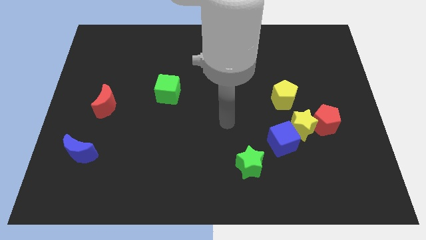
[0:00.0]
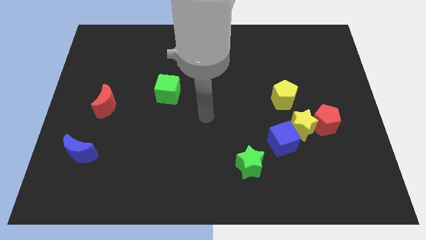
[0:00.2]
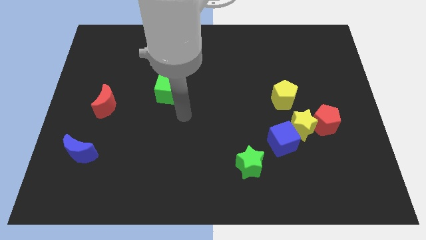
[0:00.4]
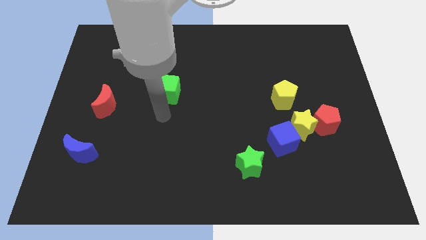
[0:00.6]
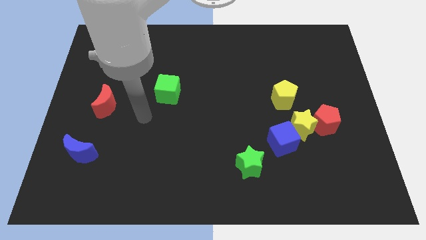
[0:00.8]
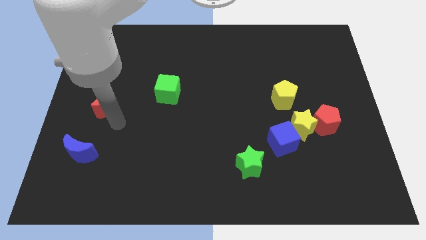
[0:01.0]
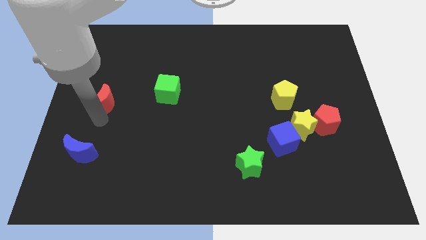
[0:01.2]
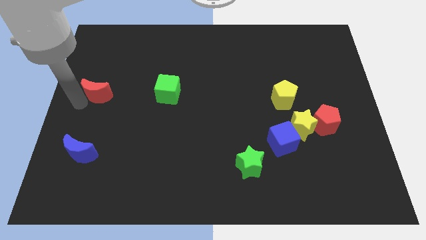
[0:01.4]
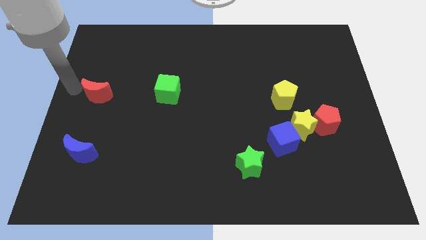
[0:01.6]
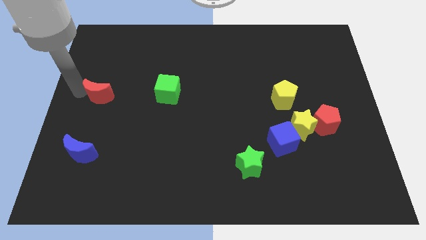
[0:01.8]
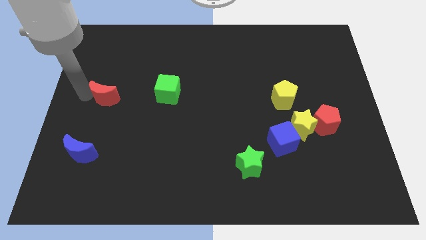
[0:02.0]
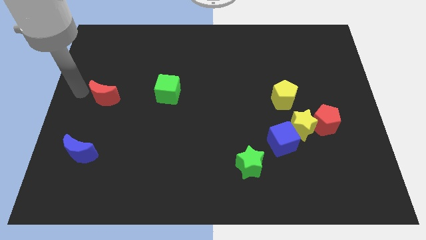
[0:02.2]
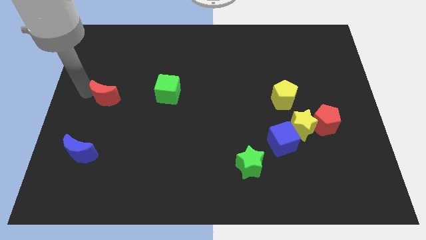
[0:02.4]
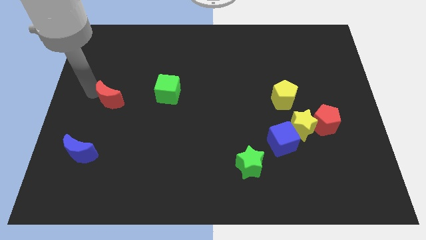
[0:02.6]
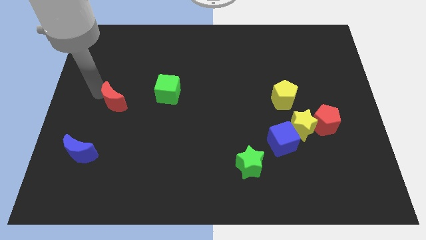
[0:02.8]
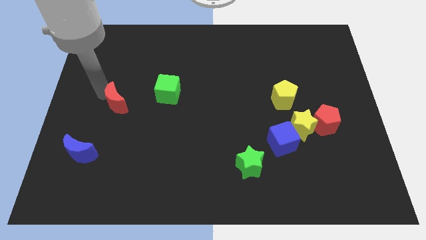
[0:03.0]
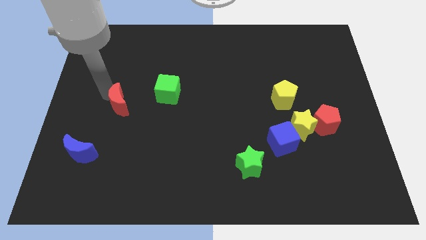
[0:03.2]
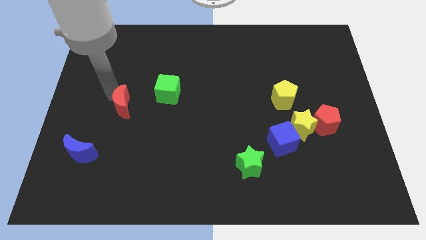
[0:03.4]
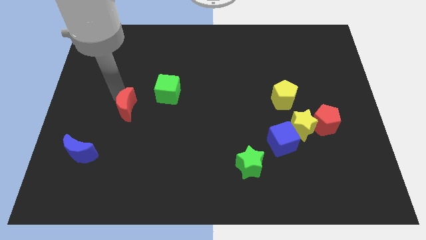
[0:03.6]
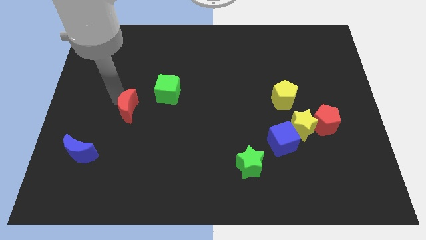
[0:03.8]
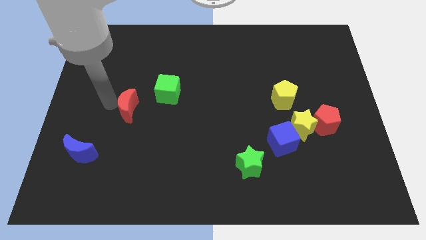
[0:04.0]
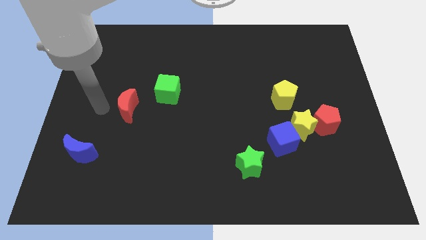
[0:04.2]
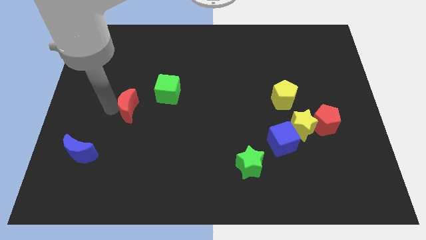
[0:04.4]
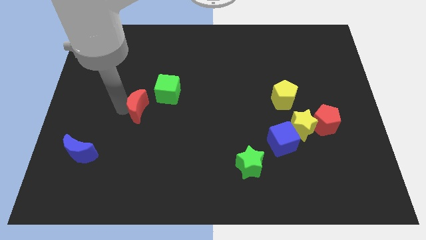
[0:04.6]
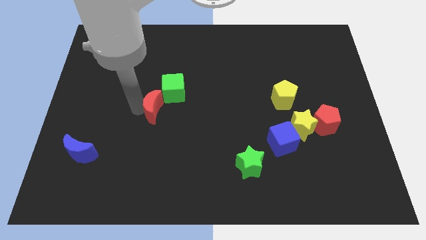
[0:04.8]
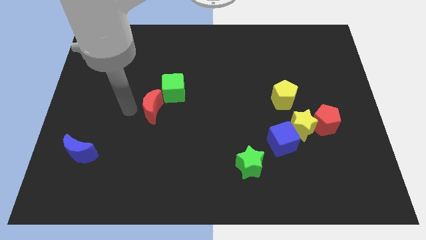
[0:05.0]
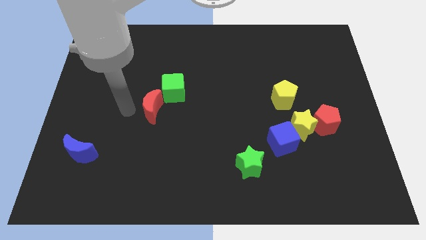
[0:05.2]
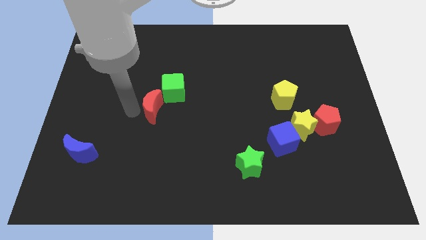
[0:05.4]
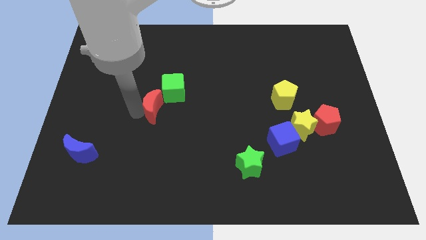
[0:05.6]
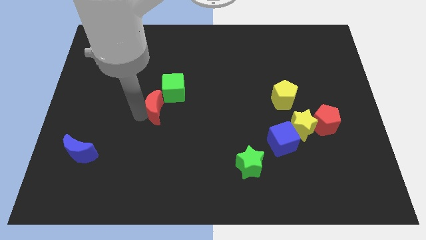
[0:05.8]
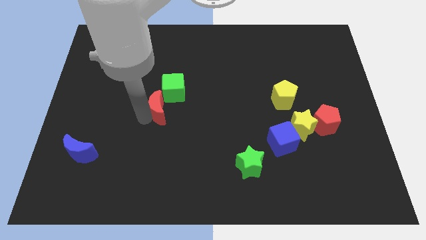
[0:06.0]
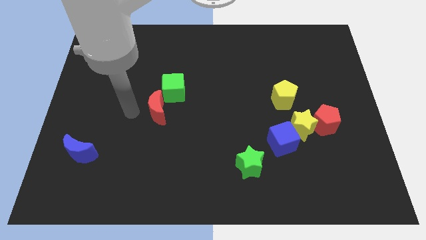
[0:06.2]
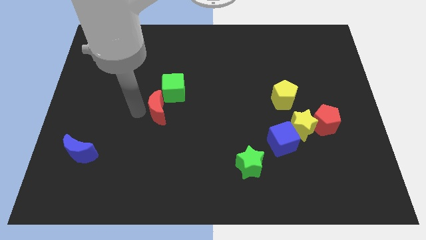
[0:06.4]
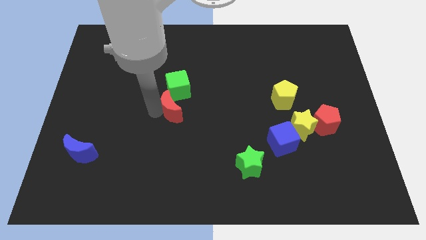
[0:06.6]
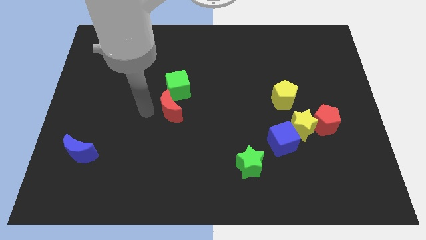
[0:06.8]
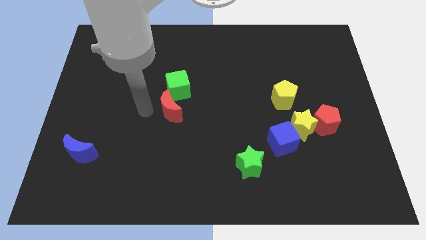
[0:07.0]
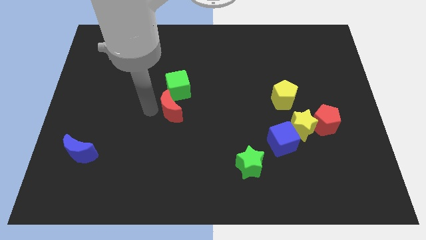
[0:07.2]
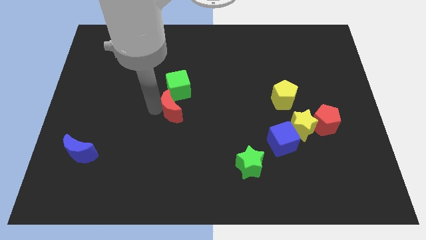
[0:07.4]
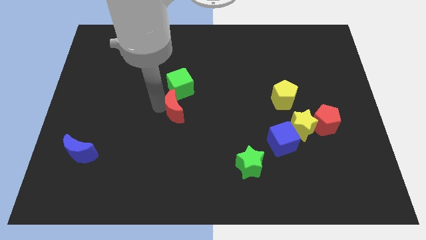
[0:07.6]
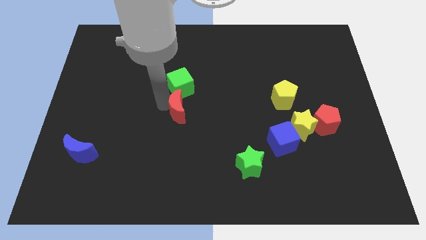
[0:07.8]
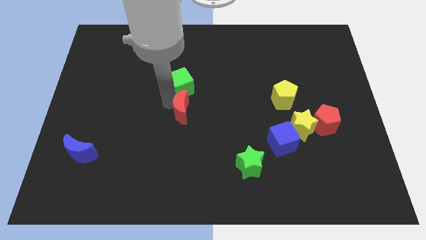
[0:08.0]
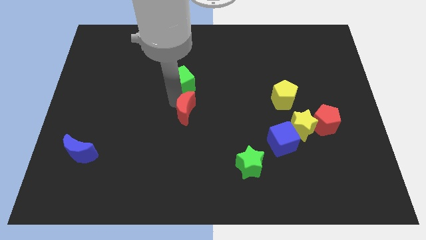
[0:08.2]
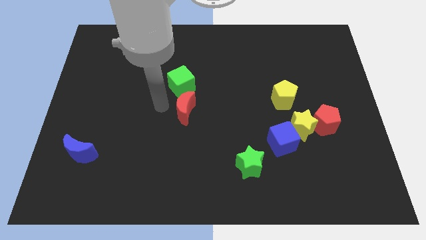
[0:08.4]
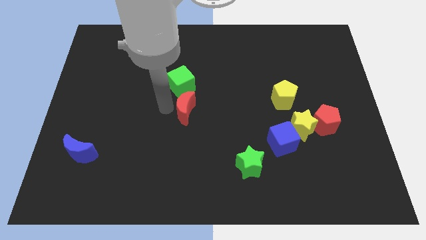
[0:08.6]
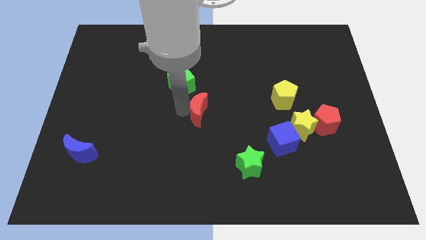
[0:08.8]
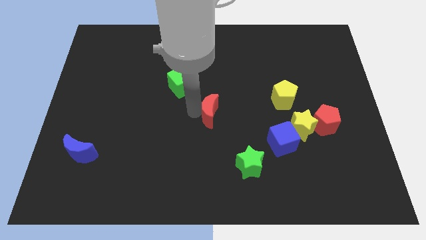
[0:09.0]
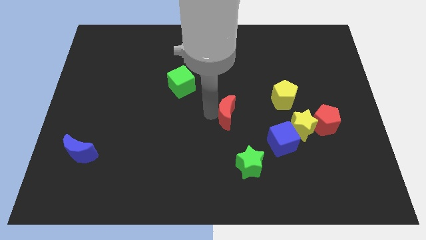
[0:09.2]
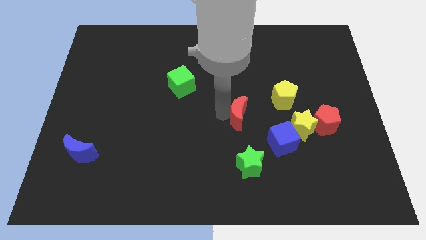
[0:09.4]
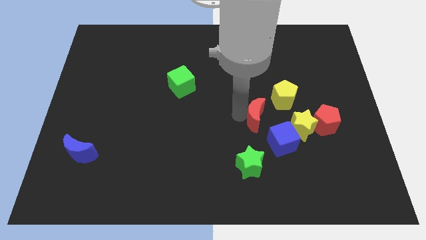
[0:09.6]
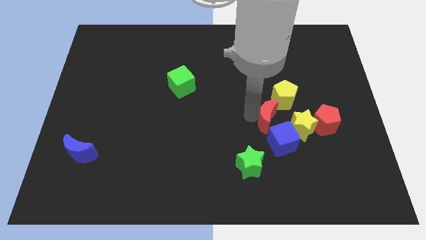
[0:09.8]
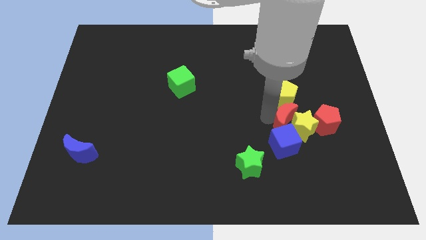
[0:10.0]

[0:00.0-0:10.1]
push the red moon next to the yellow star

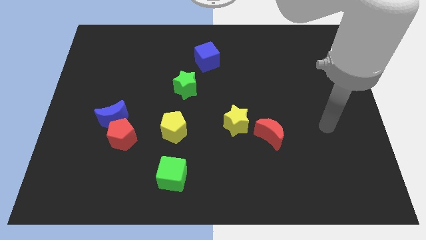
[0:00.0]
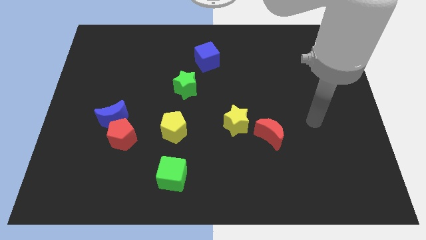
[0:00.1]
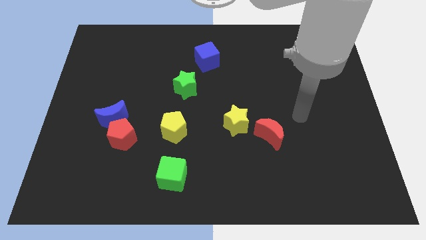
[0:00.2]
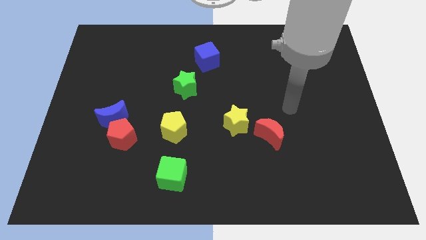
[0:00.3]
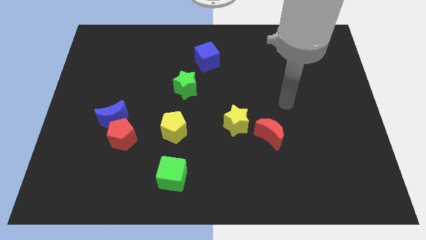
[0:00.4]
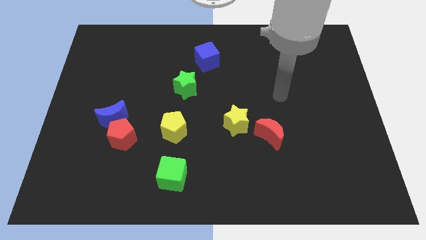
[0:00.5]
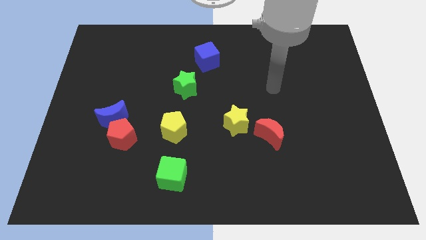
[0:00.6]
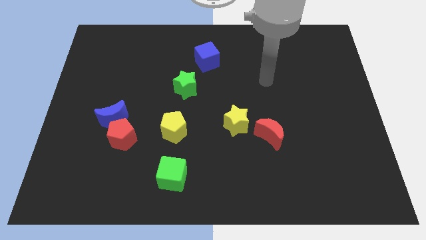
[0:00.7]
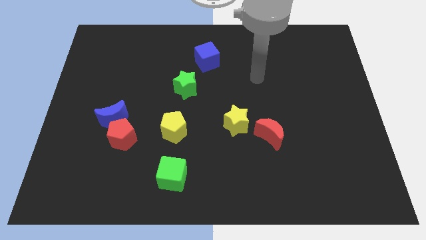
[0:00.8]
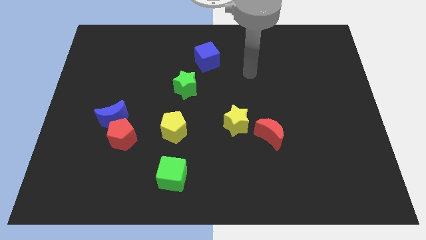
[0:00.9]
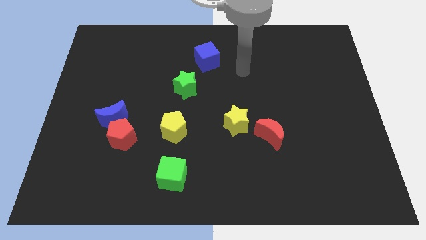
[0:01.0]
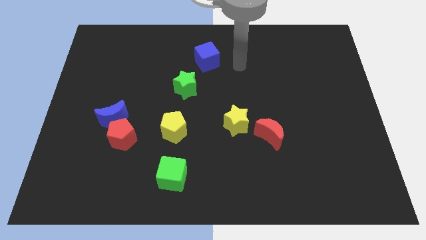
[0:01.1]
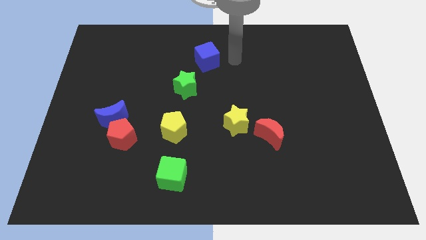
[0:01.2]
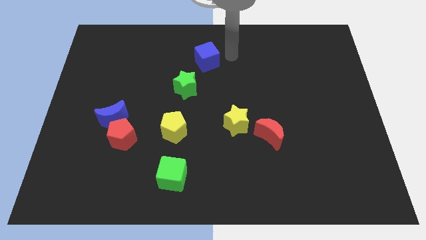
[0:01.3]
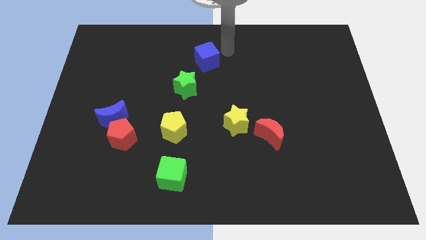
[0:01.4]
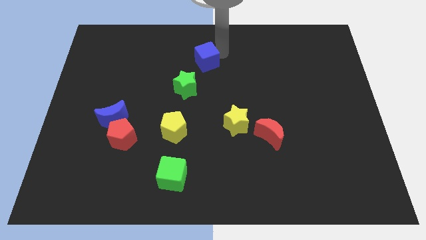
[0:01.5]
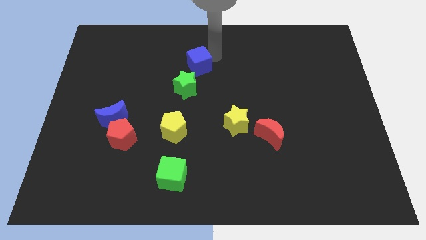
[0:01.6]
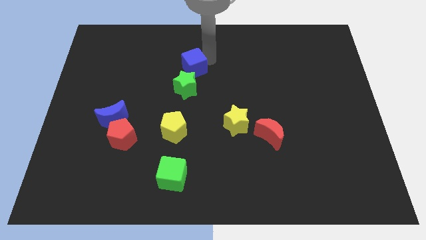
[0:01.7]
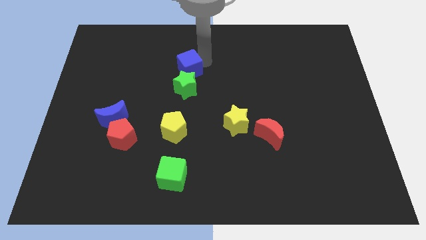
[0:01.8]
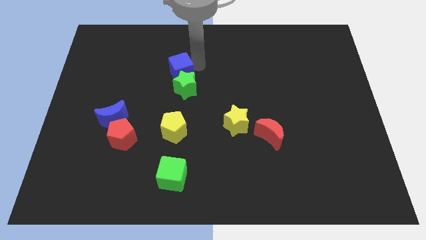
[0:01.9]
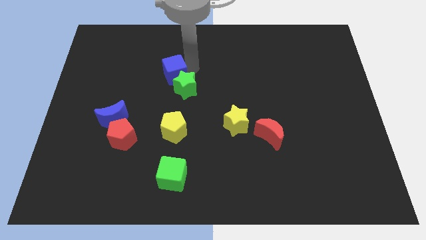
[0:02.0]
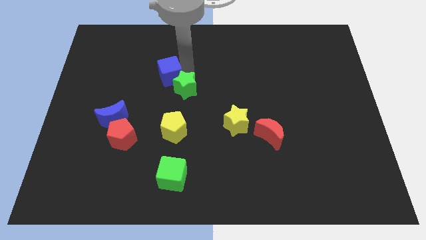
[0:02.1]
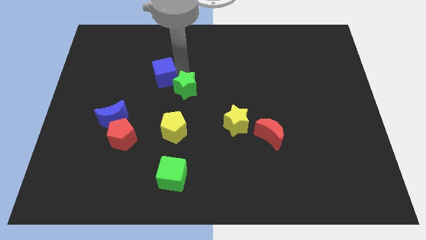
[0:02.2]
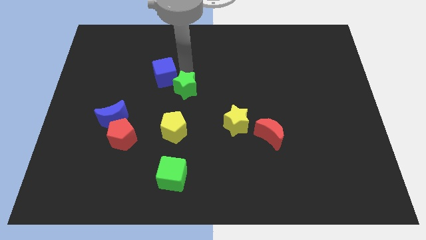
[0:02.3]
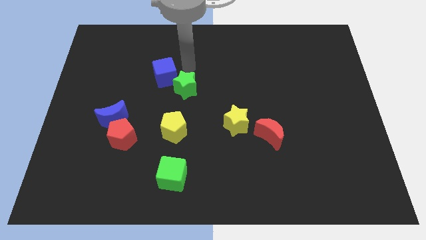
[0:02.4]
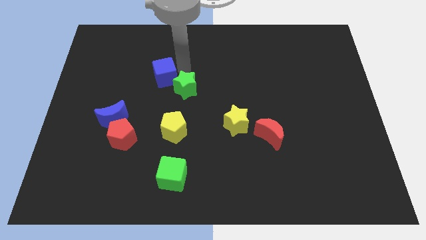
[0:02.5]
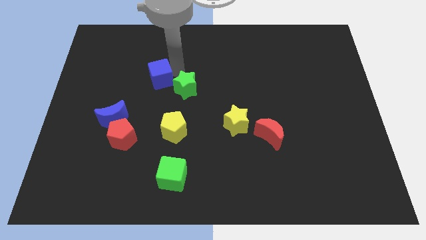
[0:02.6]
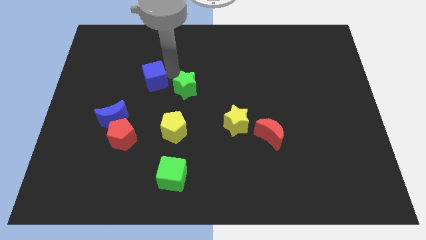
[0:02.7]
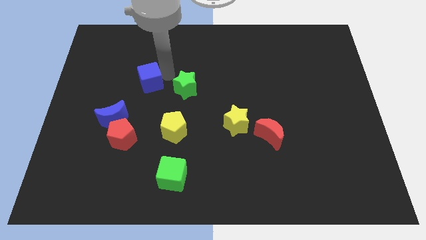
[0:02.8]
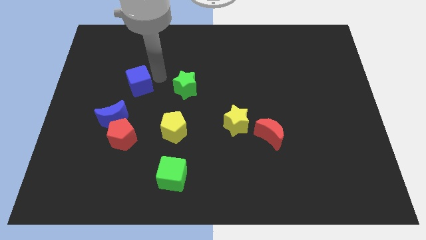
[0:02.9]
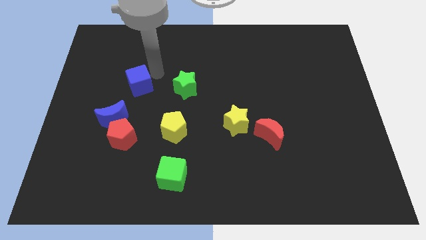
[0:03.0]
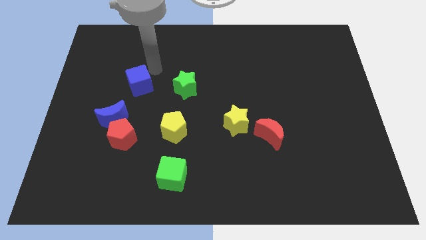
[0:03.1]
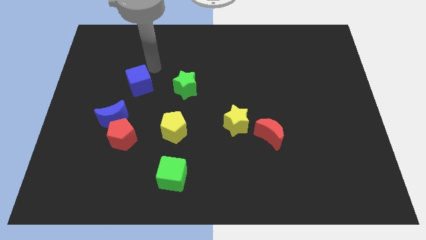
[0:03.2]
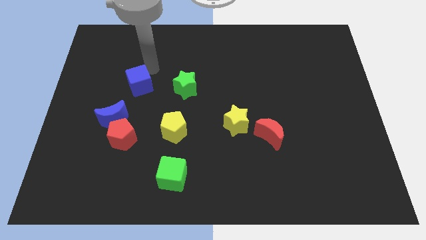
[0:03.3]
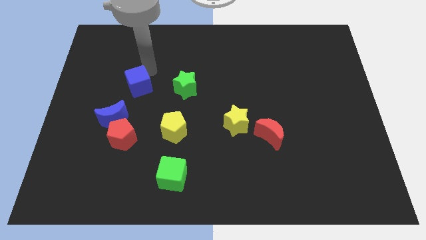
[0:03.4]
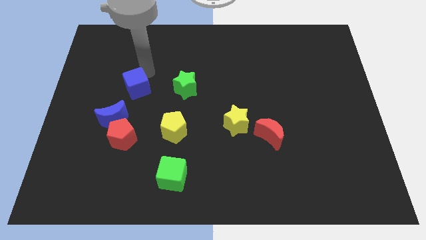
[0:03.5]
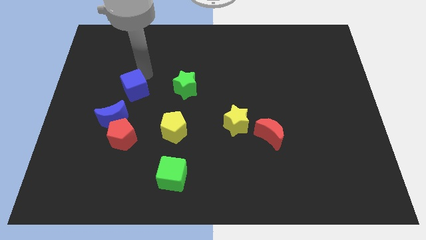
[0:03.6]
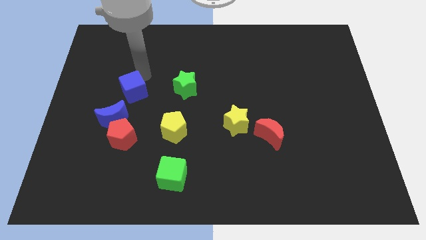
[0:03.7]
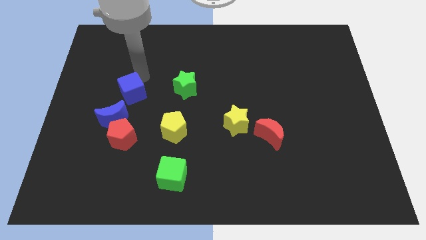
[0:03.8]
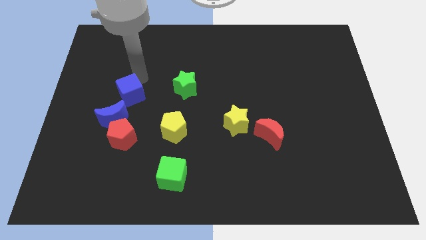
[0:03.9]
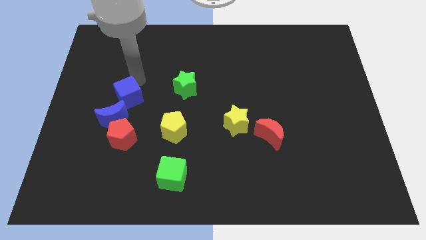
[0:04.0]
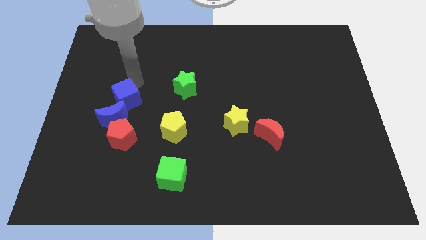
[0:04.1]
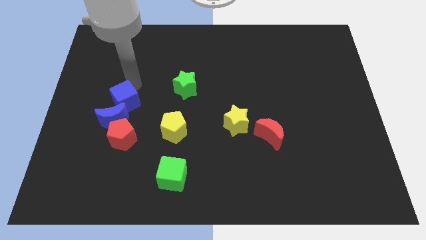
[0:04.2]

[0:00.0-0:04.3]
put the blue cube close to the blue moon
